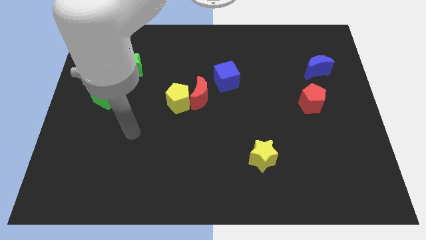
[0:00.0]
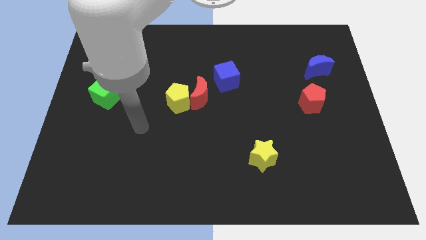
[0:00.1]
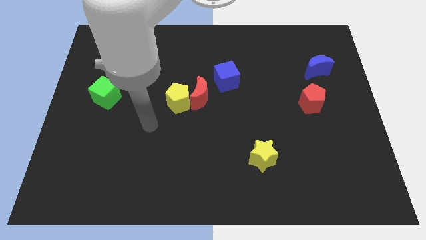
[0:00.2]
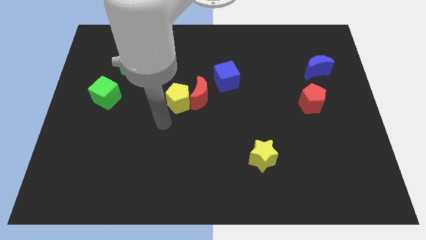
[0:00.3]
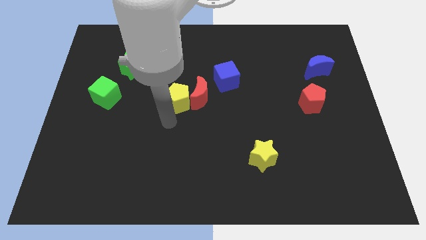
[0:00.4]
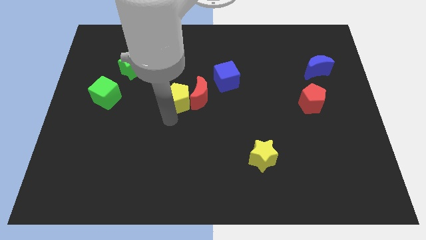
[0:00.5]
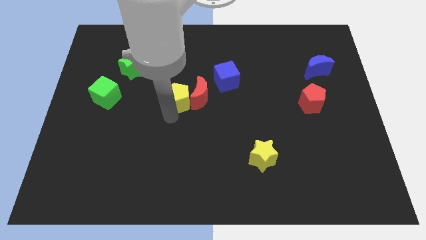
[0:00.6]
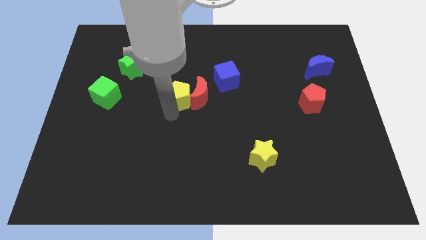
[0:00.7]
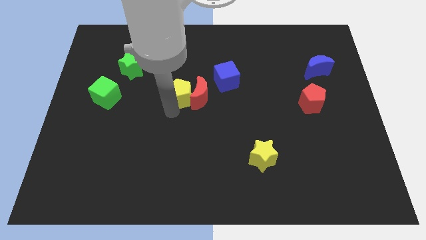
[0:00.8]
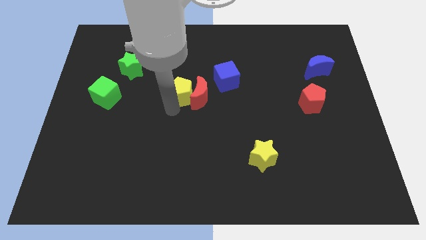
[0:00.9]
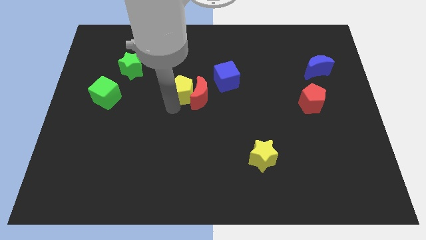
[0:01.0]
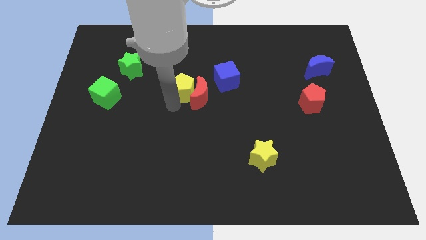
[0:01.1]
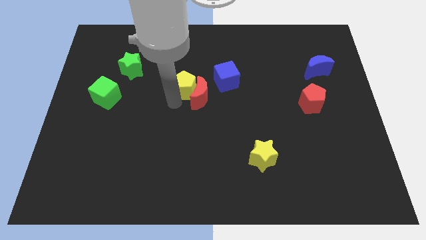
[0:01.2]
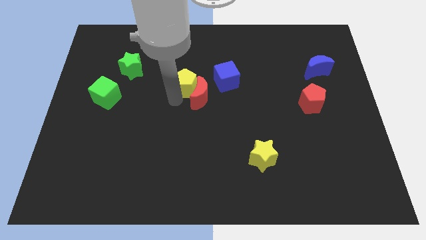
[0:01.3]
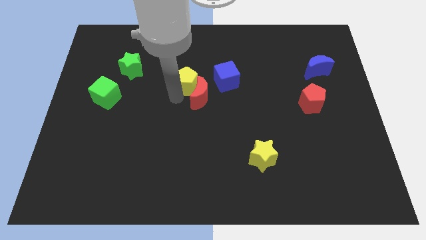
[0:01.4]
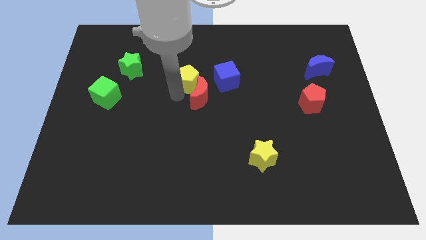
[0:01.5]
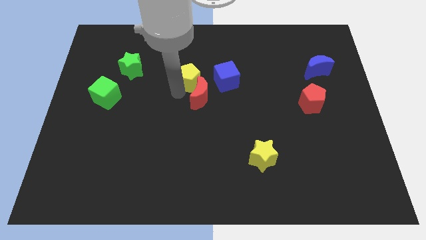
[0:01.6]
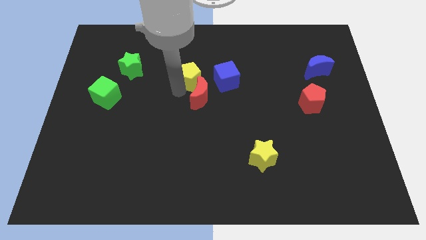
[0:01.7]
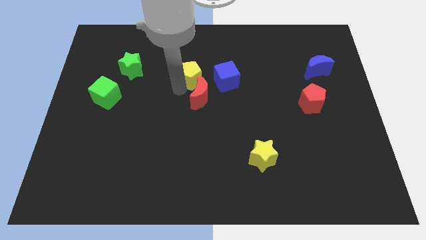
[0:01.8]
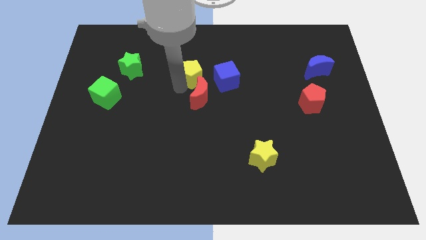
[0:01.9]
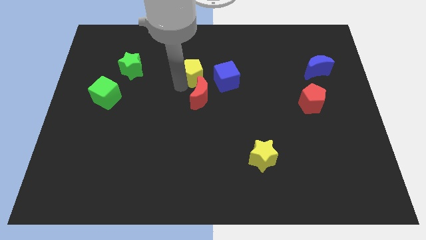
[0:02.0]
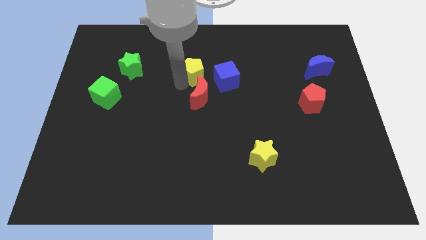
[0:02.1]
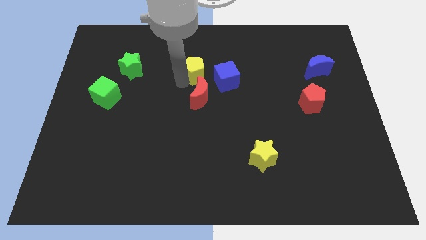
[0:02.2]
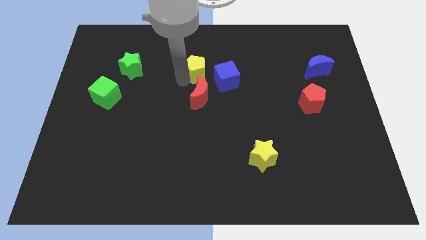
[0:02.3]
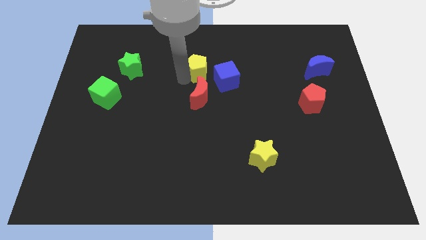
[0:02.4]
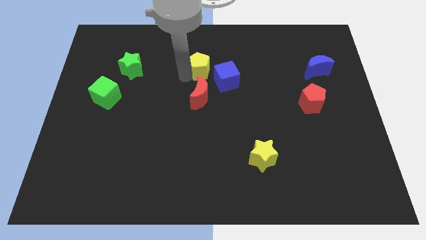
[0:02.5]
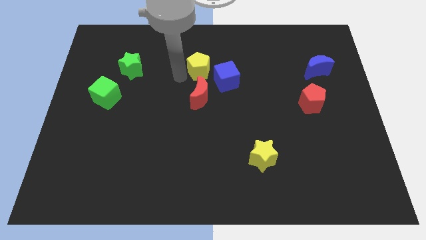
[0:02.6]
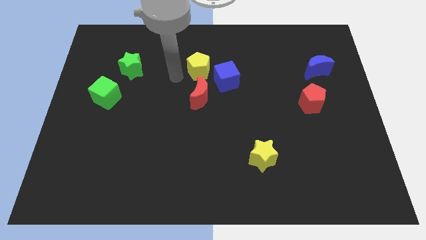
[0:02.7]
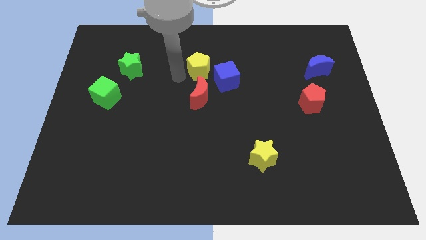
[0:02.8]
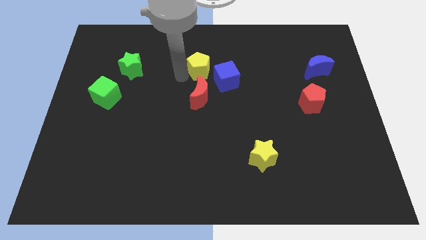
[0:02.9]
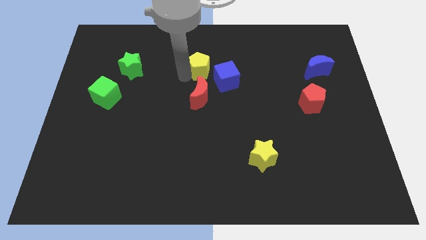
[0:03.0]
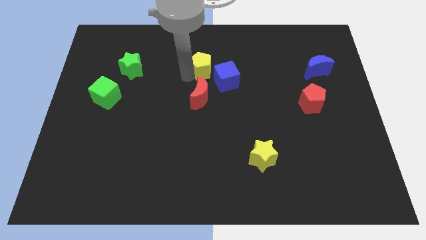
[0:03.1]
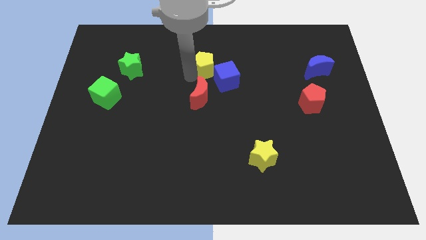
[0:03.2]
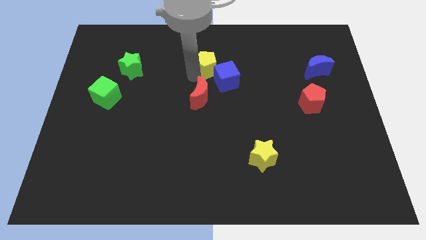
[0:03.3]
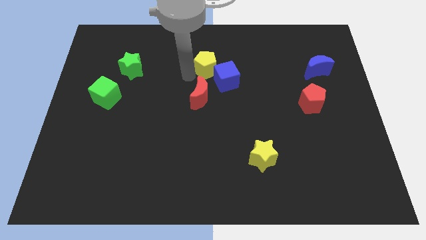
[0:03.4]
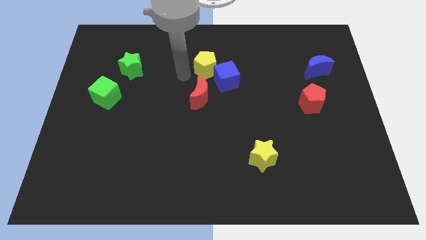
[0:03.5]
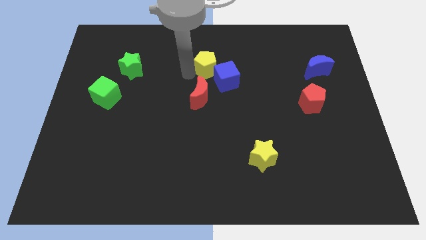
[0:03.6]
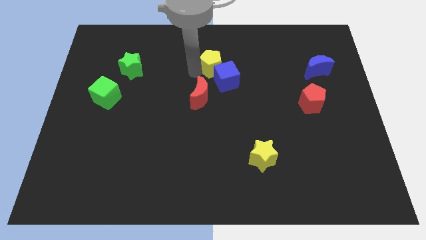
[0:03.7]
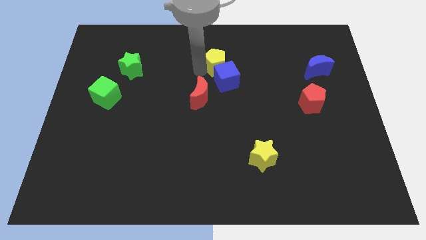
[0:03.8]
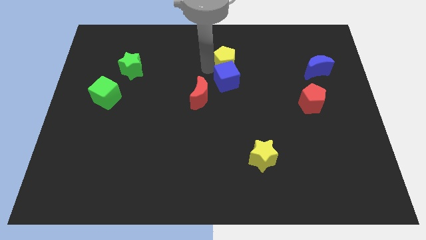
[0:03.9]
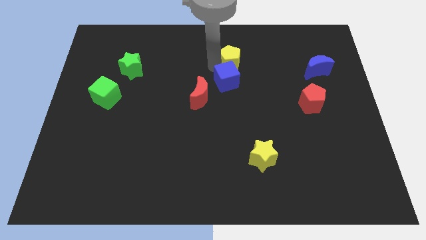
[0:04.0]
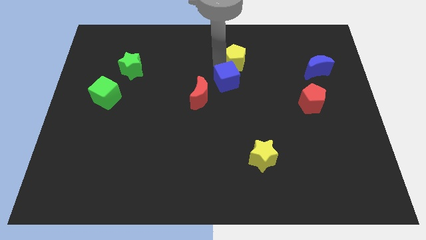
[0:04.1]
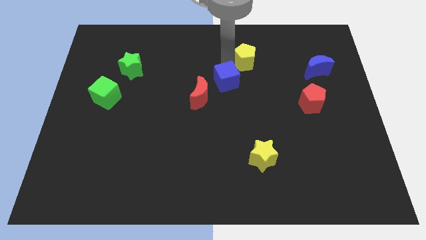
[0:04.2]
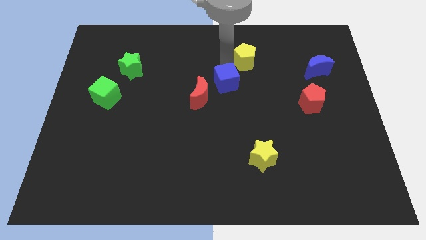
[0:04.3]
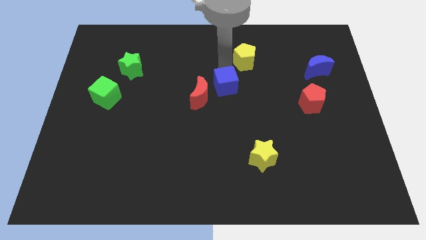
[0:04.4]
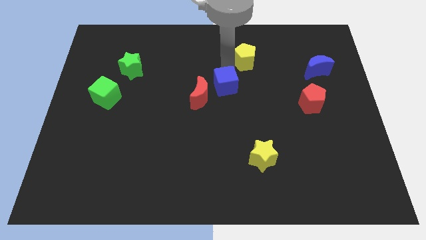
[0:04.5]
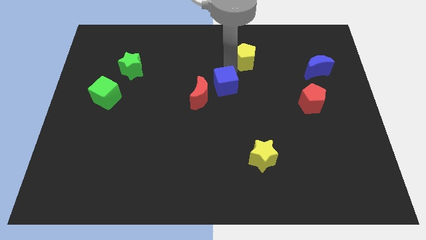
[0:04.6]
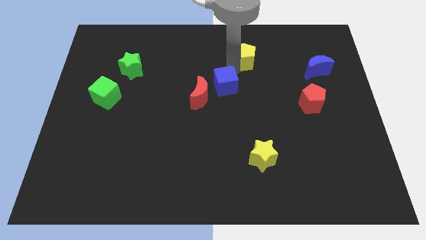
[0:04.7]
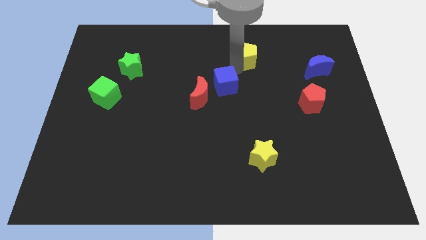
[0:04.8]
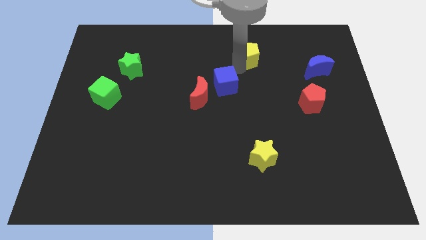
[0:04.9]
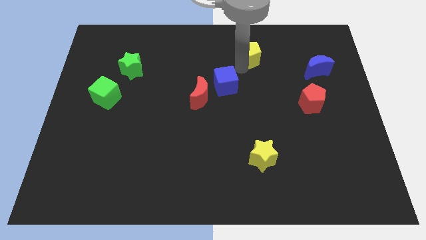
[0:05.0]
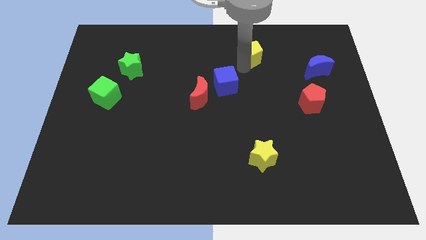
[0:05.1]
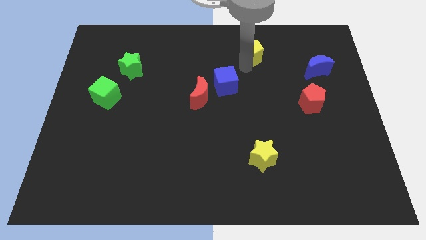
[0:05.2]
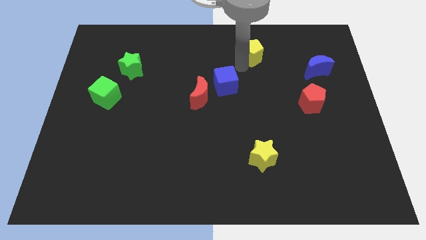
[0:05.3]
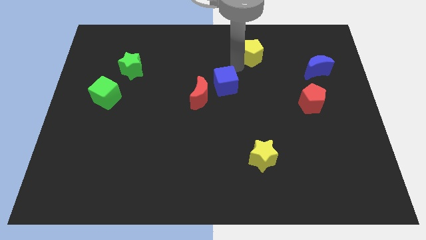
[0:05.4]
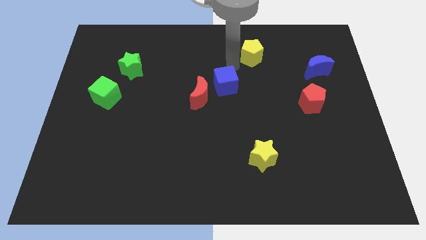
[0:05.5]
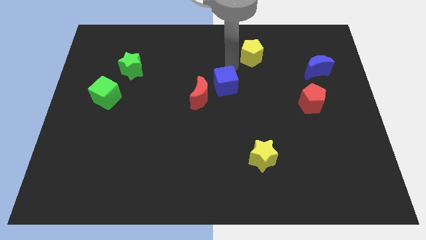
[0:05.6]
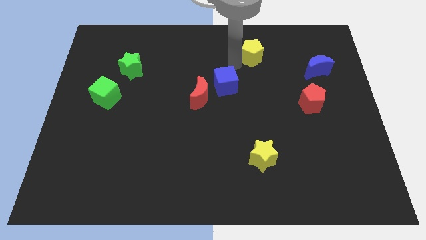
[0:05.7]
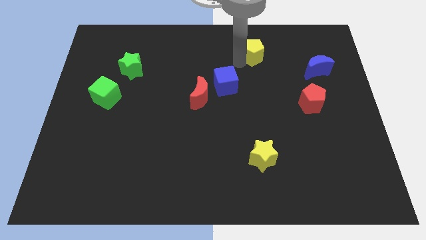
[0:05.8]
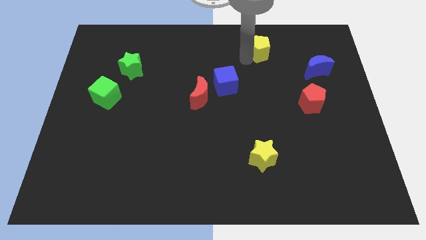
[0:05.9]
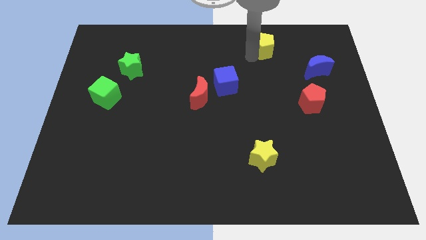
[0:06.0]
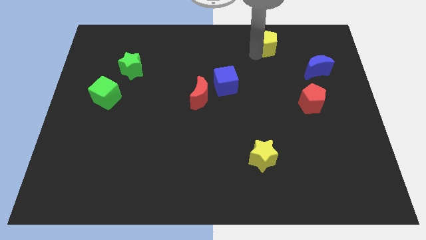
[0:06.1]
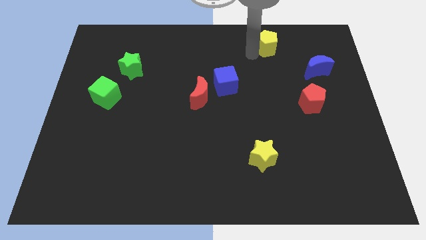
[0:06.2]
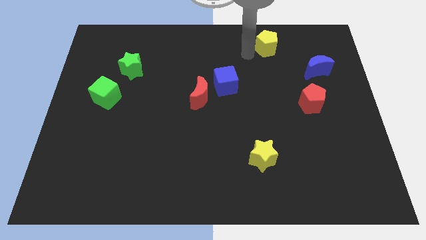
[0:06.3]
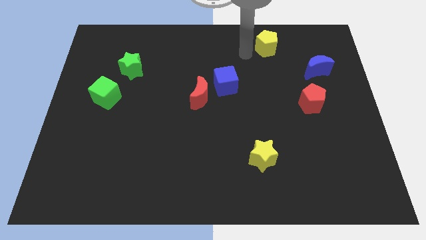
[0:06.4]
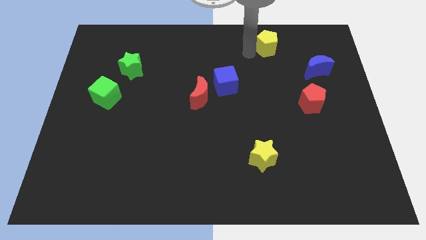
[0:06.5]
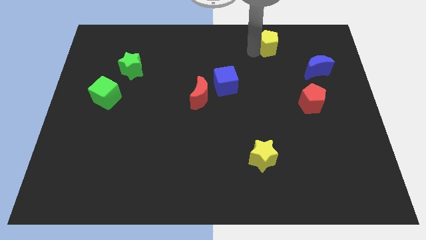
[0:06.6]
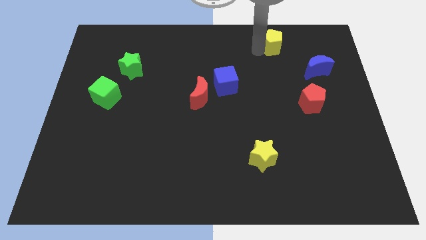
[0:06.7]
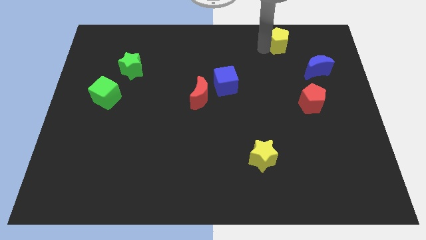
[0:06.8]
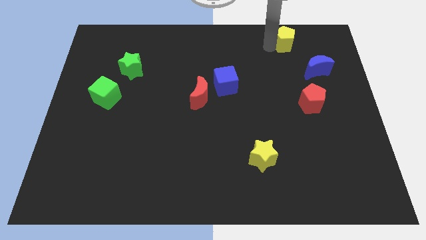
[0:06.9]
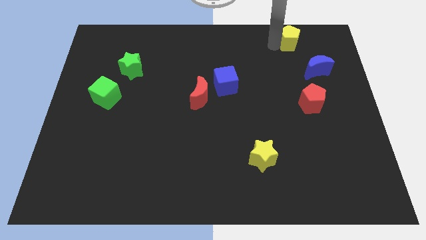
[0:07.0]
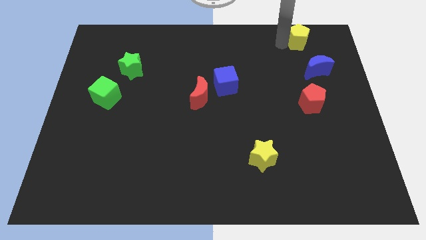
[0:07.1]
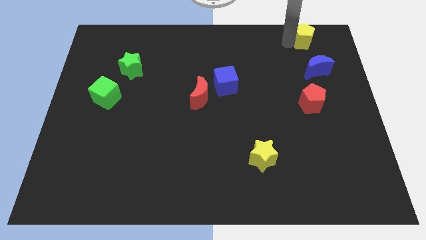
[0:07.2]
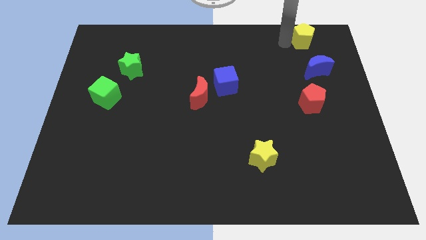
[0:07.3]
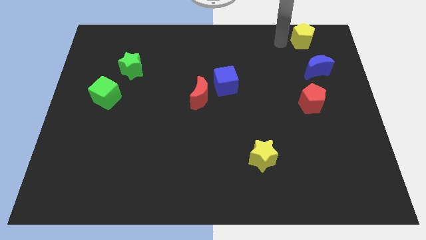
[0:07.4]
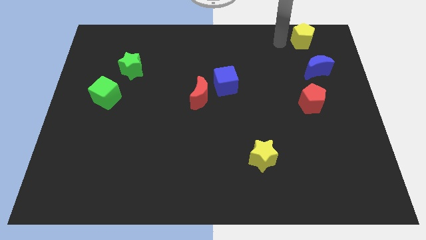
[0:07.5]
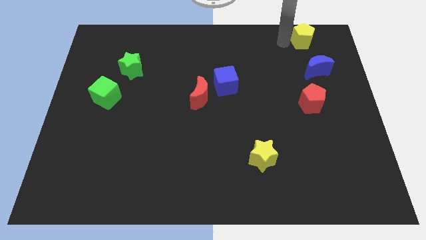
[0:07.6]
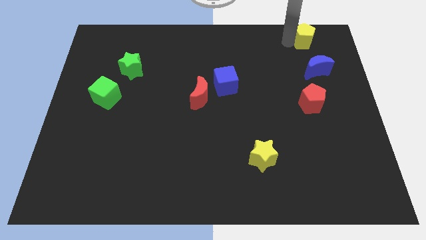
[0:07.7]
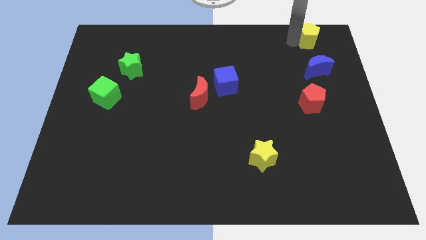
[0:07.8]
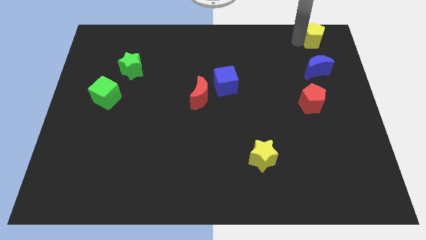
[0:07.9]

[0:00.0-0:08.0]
push the yellow pentagon to the top right of the board
